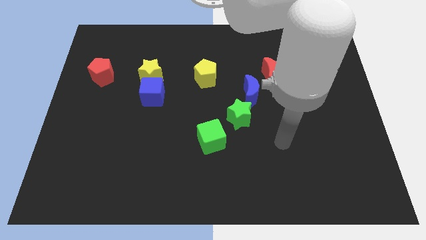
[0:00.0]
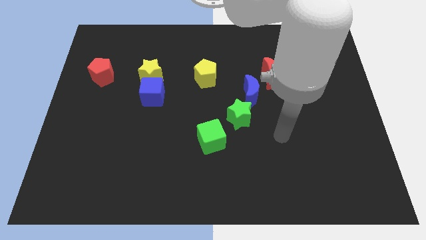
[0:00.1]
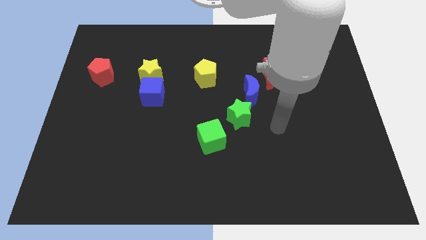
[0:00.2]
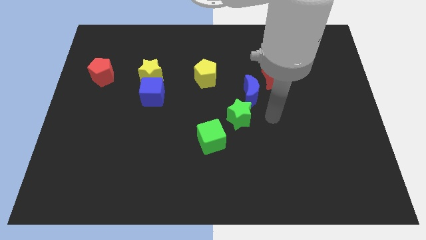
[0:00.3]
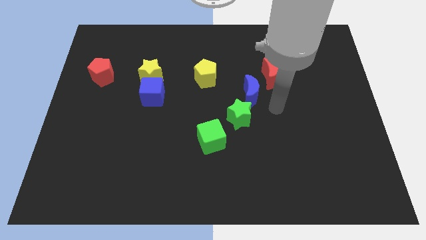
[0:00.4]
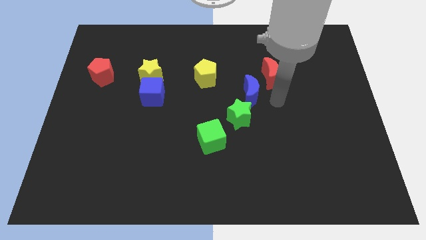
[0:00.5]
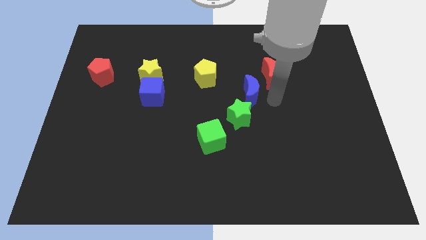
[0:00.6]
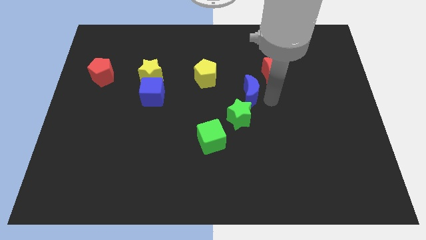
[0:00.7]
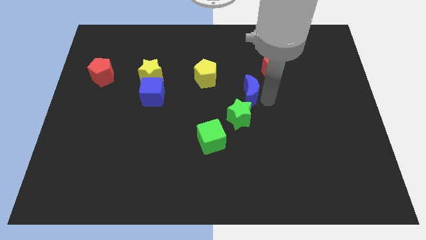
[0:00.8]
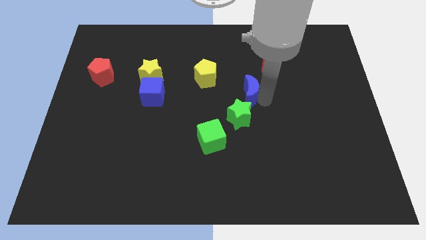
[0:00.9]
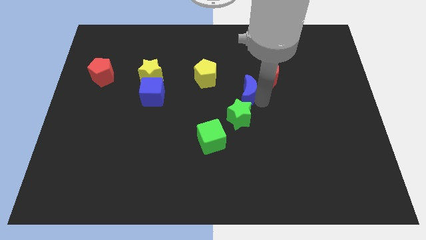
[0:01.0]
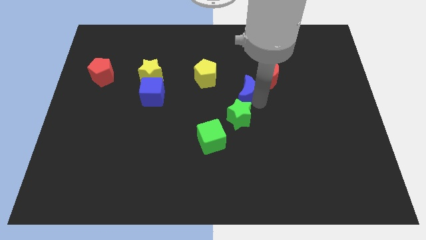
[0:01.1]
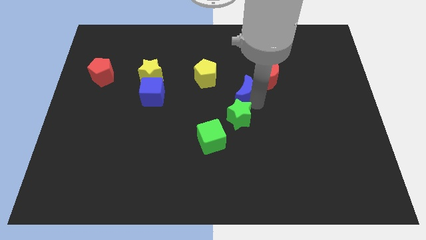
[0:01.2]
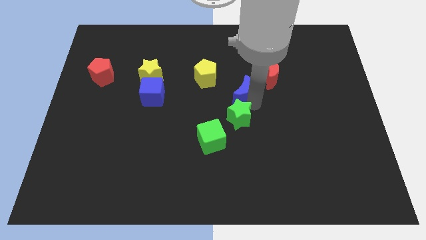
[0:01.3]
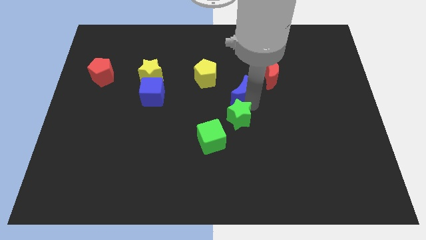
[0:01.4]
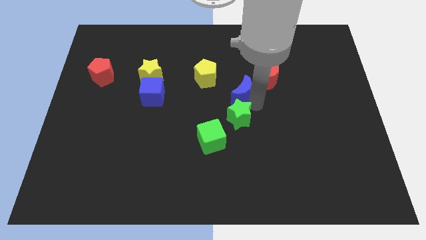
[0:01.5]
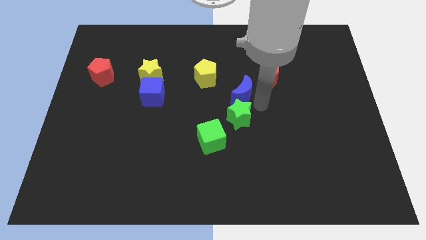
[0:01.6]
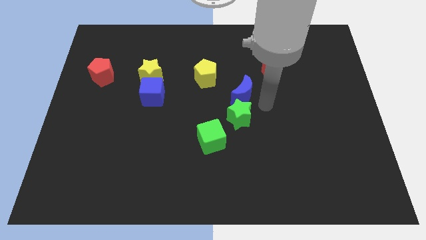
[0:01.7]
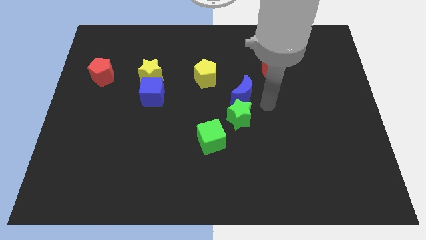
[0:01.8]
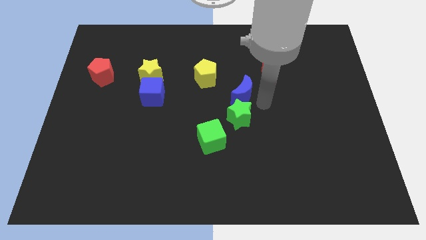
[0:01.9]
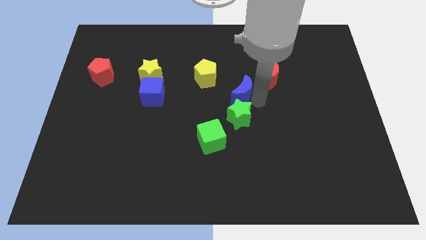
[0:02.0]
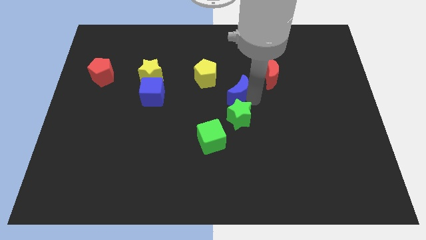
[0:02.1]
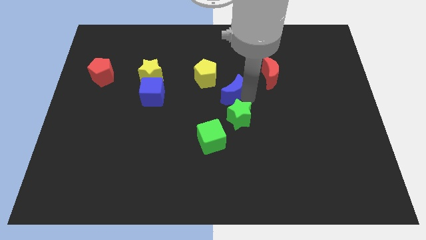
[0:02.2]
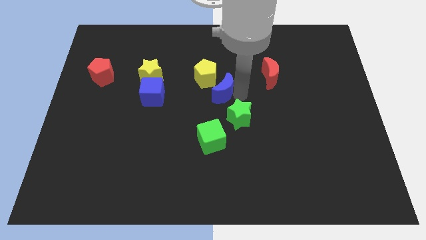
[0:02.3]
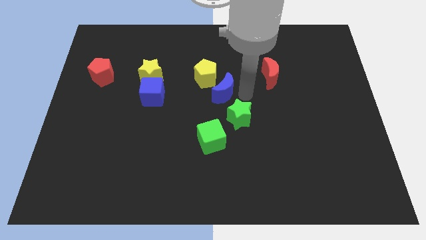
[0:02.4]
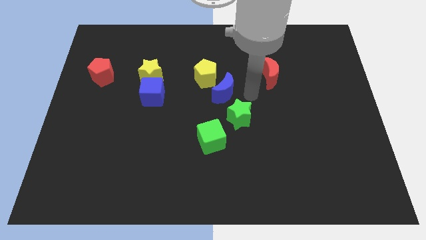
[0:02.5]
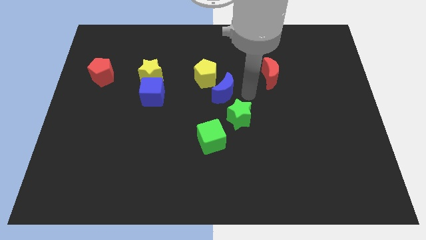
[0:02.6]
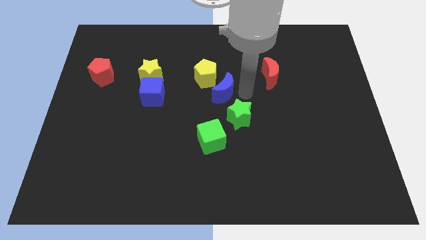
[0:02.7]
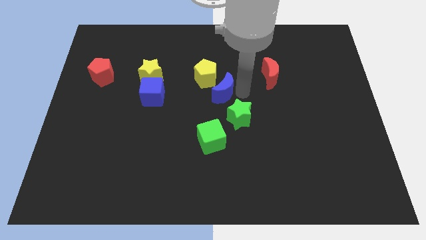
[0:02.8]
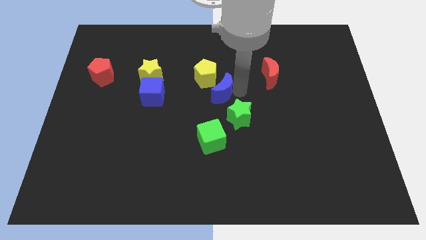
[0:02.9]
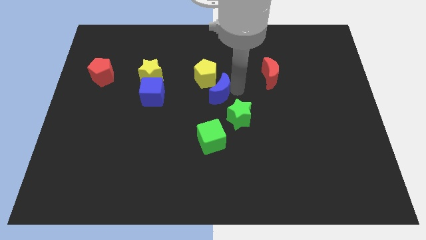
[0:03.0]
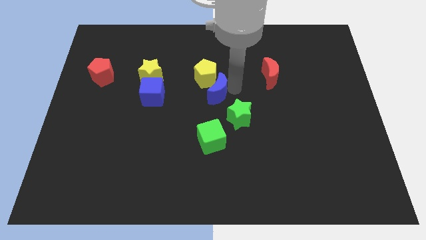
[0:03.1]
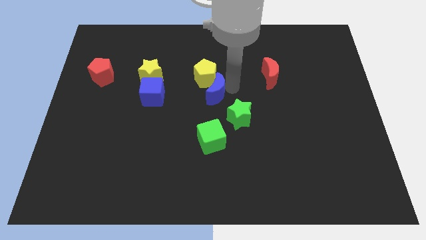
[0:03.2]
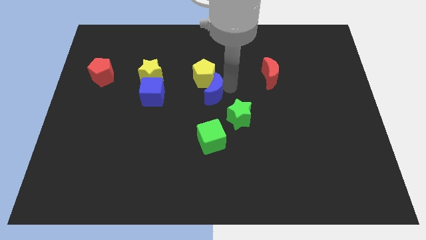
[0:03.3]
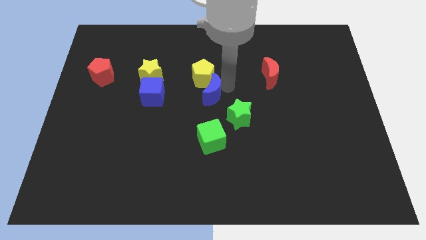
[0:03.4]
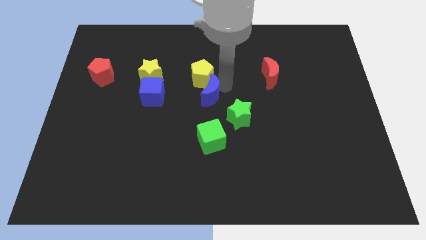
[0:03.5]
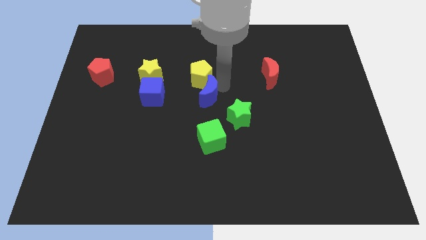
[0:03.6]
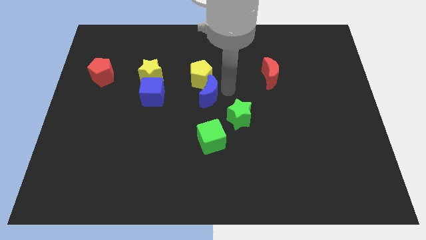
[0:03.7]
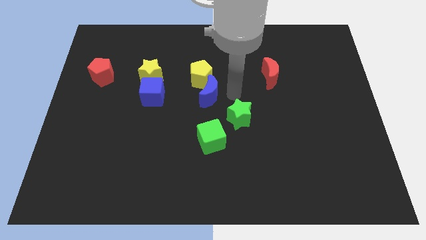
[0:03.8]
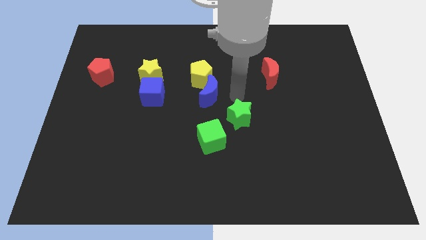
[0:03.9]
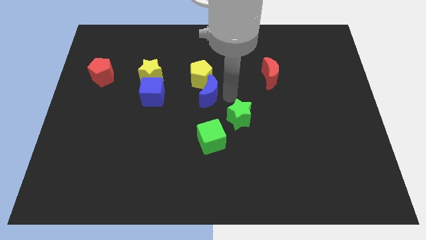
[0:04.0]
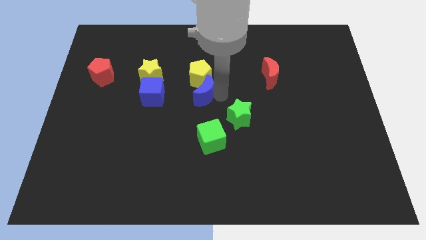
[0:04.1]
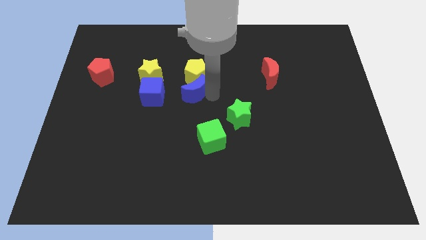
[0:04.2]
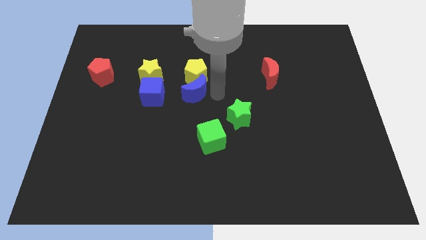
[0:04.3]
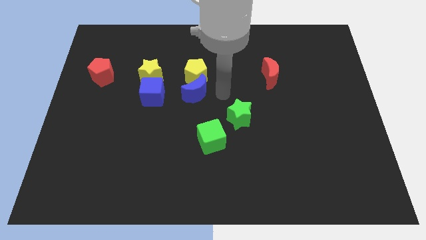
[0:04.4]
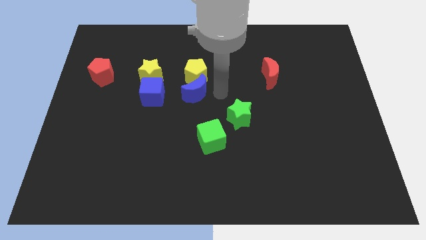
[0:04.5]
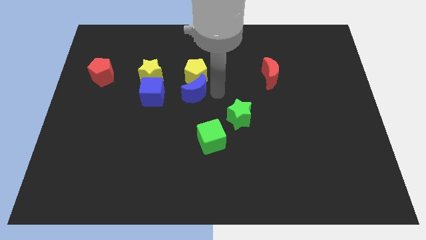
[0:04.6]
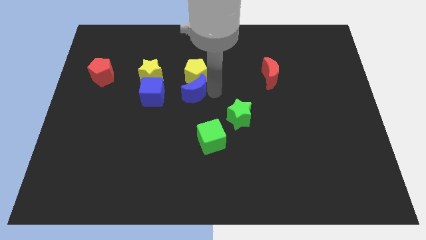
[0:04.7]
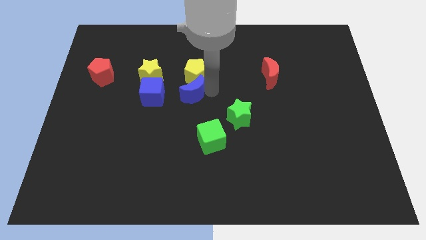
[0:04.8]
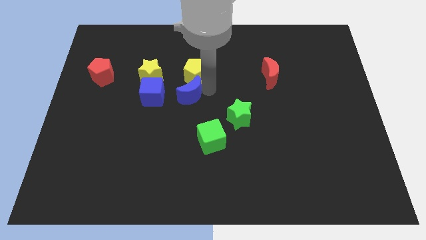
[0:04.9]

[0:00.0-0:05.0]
slide the blue moon to the bottom right side of the yellow star

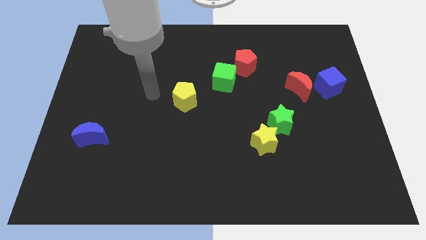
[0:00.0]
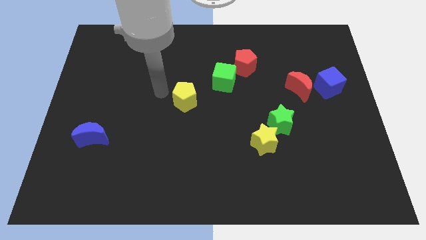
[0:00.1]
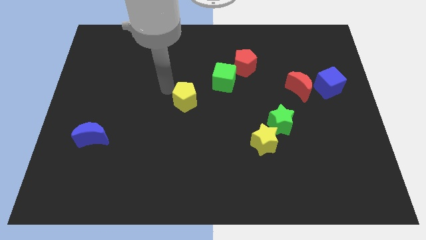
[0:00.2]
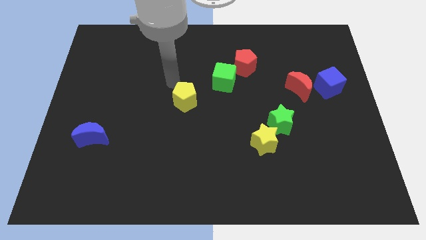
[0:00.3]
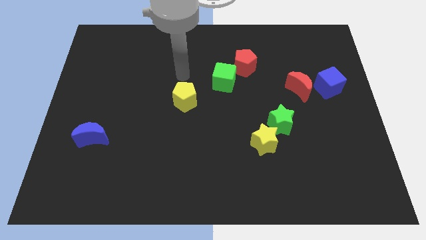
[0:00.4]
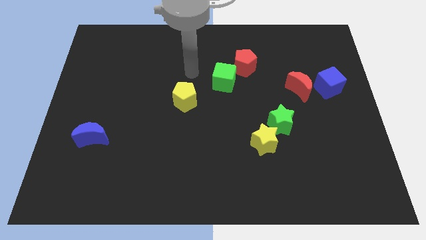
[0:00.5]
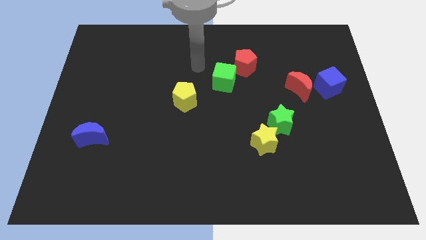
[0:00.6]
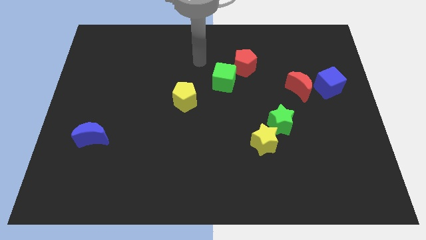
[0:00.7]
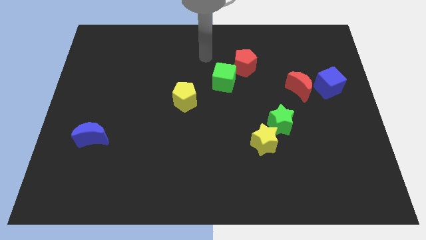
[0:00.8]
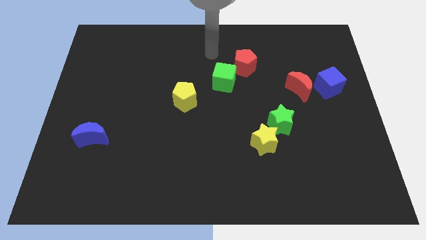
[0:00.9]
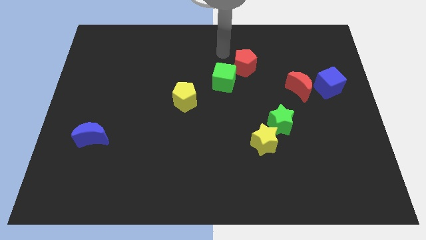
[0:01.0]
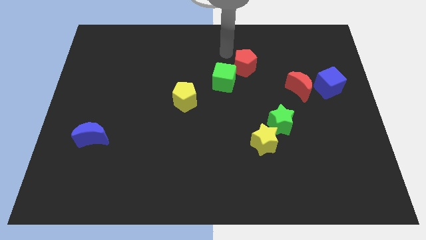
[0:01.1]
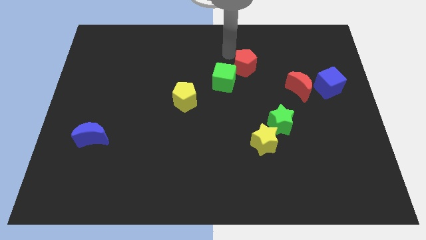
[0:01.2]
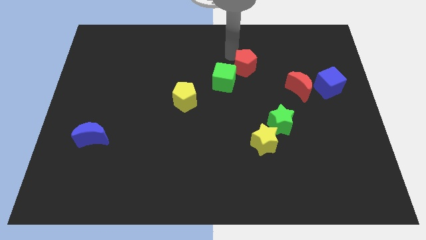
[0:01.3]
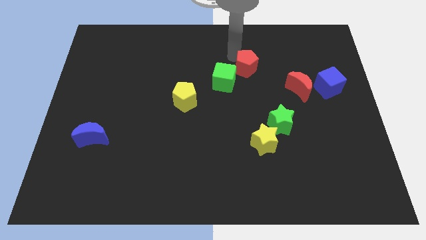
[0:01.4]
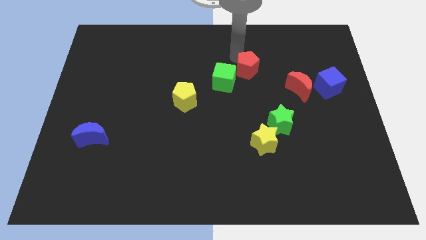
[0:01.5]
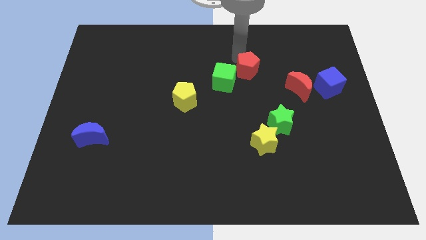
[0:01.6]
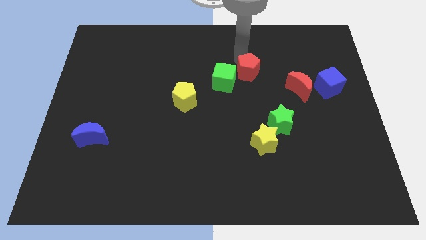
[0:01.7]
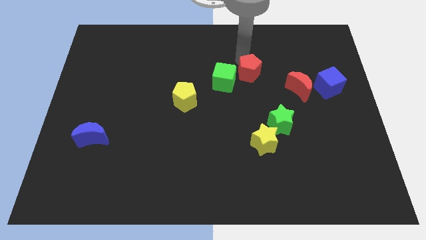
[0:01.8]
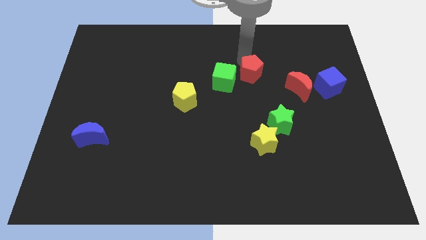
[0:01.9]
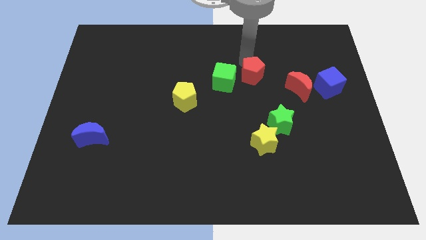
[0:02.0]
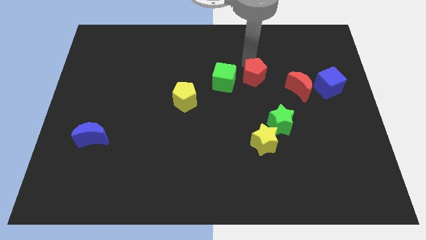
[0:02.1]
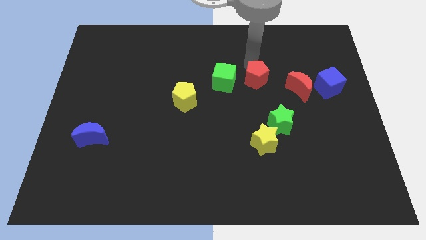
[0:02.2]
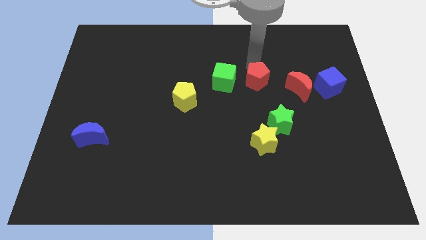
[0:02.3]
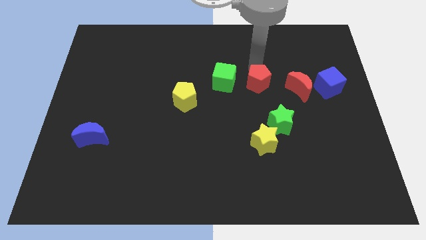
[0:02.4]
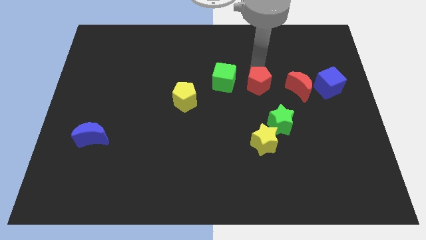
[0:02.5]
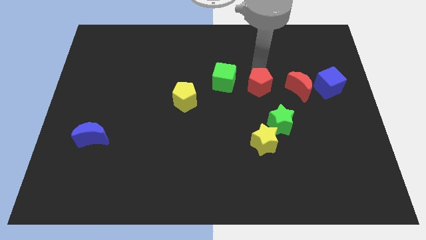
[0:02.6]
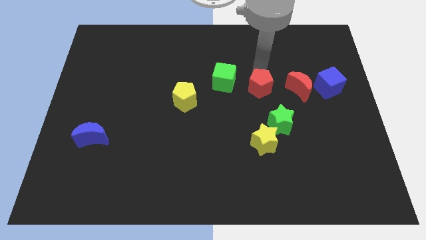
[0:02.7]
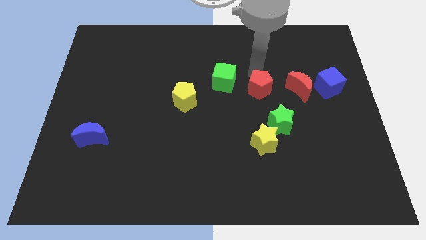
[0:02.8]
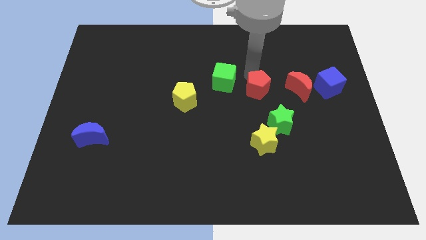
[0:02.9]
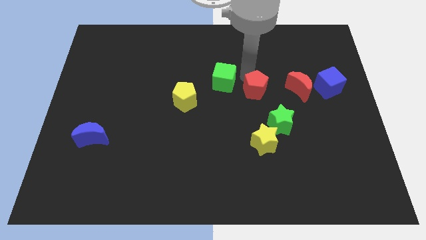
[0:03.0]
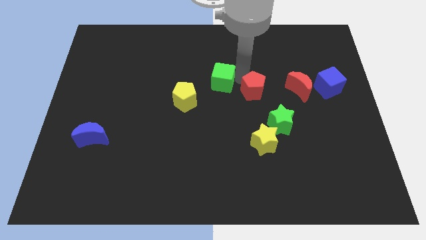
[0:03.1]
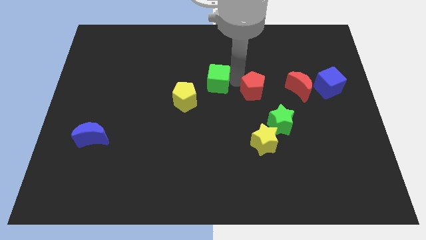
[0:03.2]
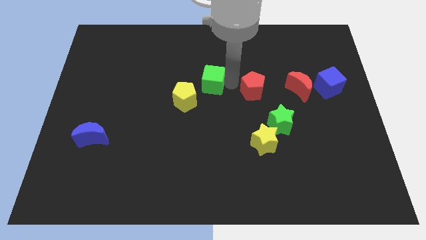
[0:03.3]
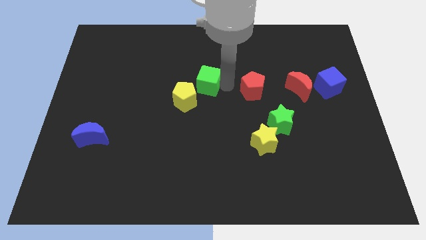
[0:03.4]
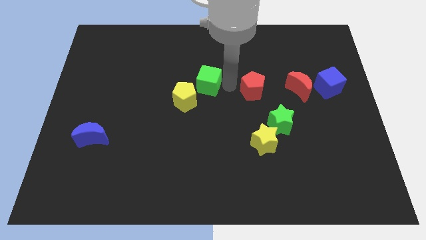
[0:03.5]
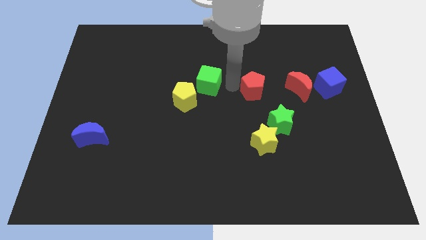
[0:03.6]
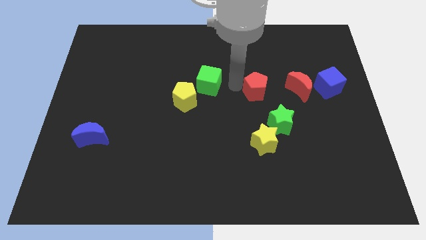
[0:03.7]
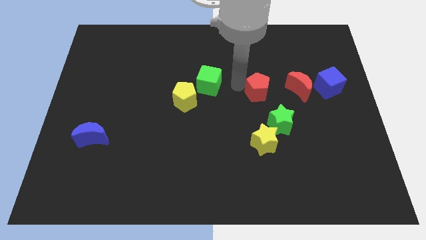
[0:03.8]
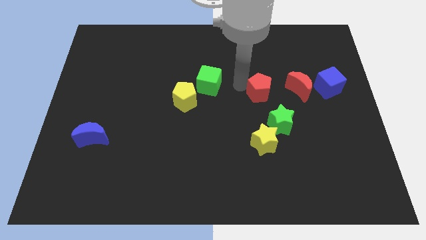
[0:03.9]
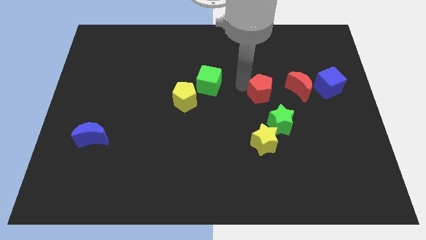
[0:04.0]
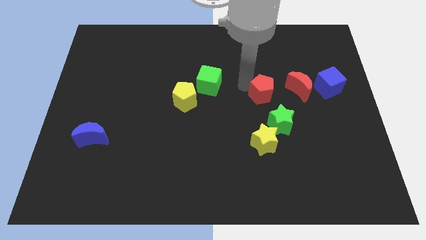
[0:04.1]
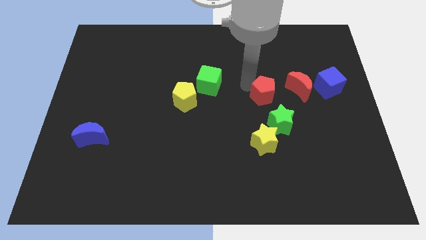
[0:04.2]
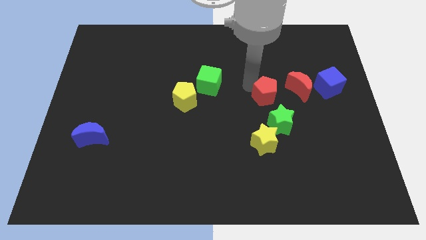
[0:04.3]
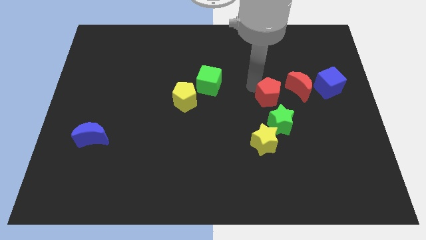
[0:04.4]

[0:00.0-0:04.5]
put the red pentagon just left of the blue cube
